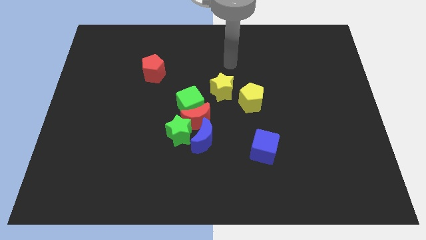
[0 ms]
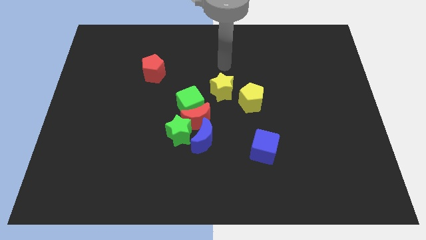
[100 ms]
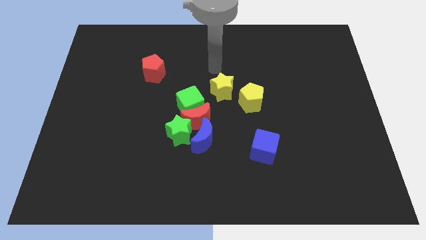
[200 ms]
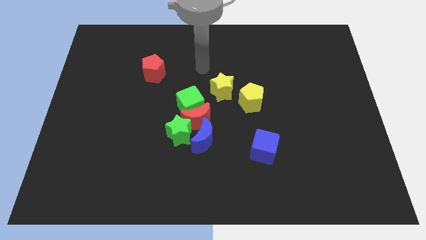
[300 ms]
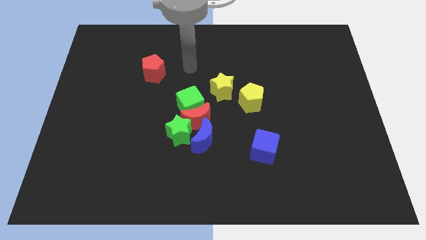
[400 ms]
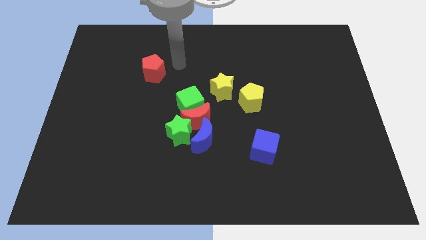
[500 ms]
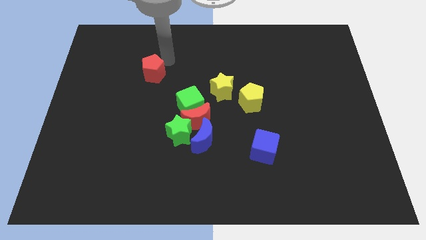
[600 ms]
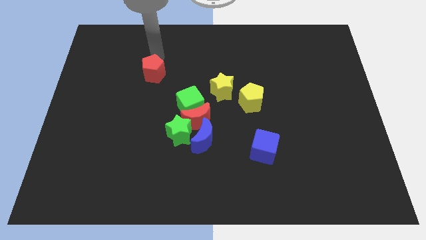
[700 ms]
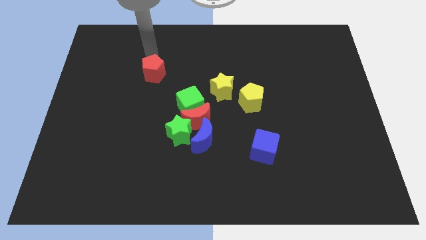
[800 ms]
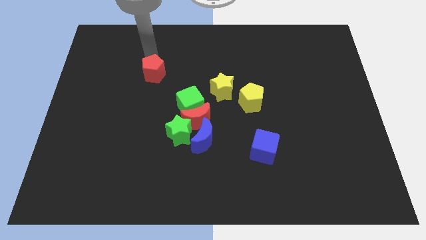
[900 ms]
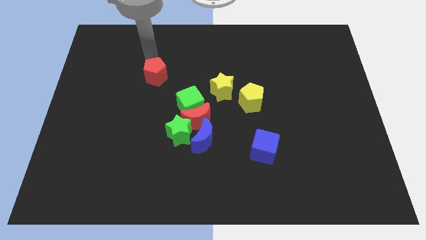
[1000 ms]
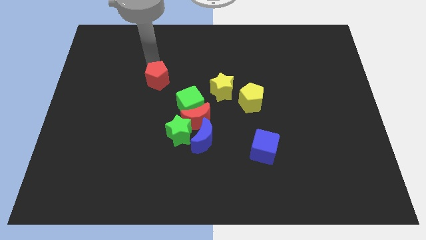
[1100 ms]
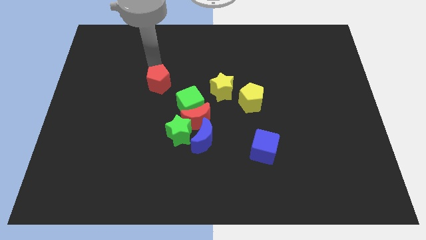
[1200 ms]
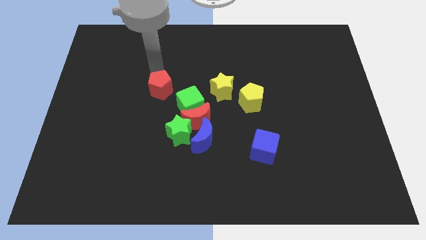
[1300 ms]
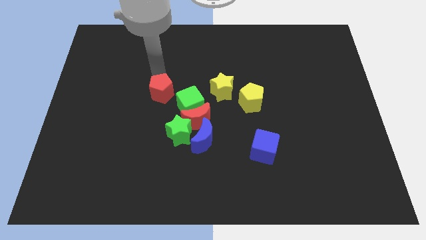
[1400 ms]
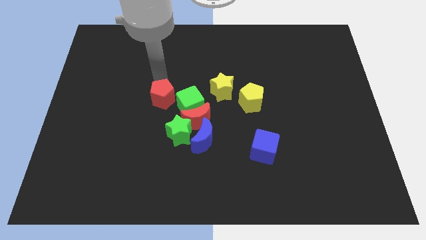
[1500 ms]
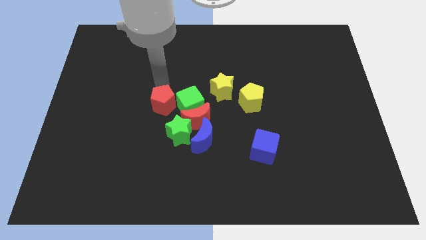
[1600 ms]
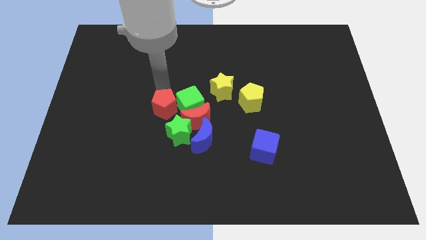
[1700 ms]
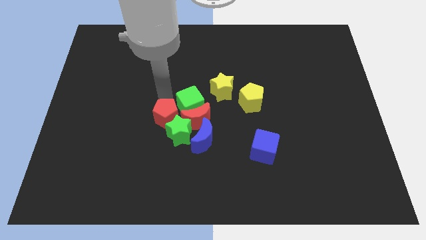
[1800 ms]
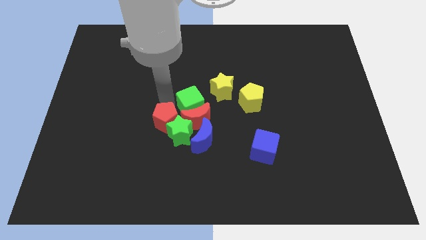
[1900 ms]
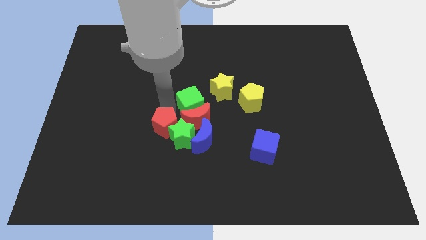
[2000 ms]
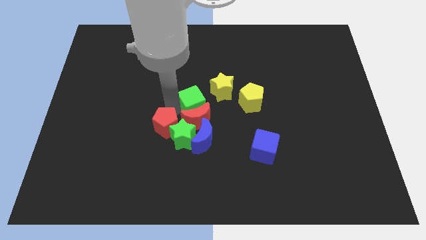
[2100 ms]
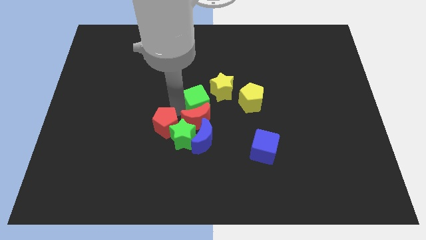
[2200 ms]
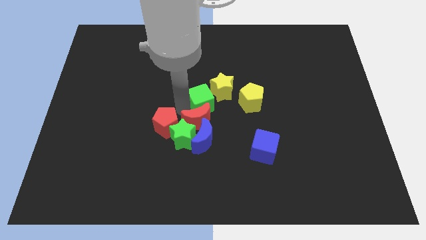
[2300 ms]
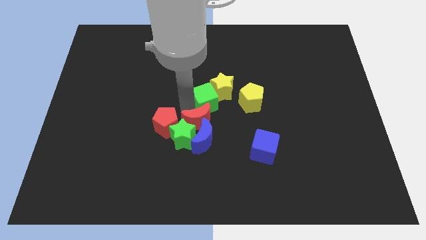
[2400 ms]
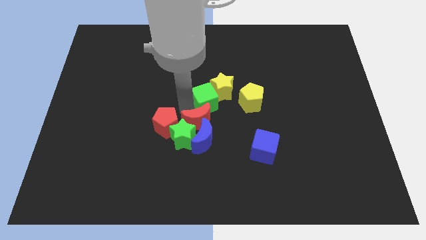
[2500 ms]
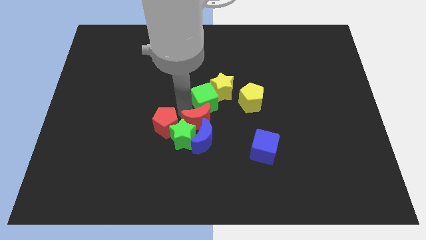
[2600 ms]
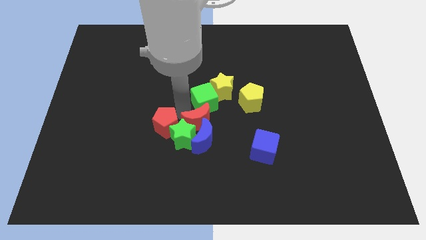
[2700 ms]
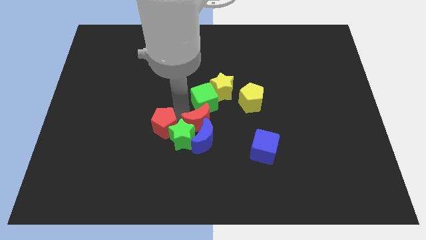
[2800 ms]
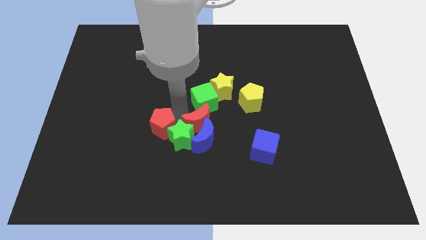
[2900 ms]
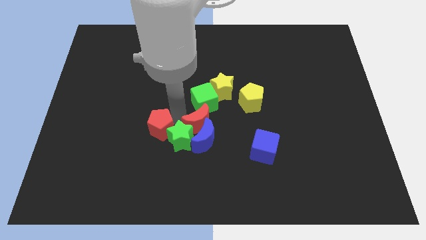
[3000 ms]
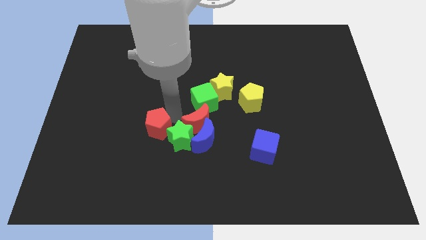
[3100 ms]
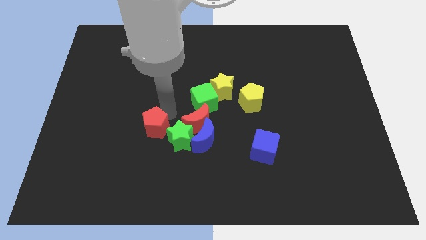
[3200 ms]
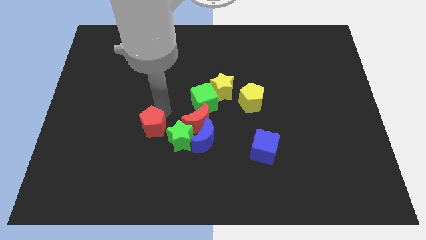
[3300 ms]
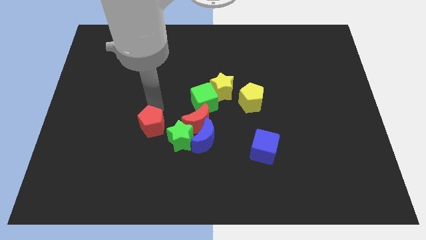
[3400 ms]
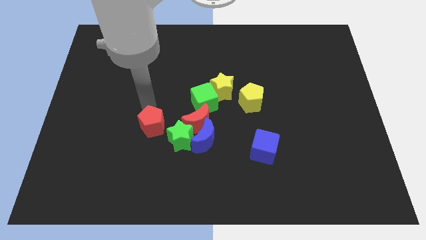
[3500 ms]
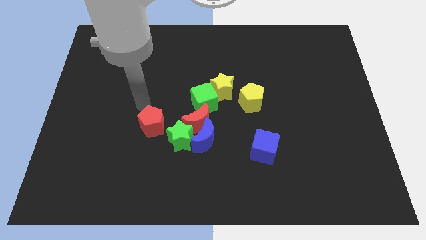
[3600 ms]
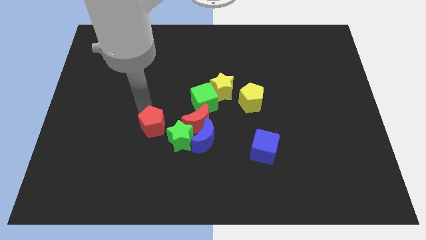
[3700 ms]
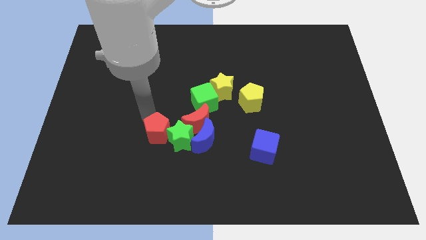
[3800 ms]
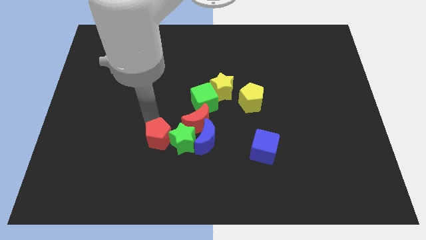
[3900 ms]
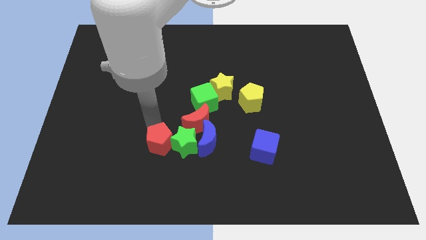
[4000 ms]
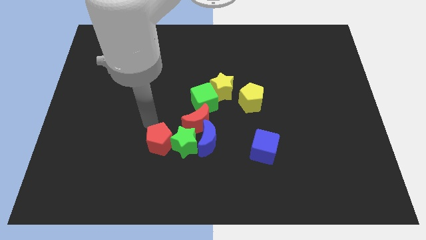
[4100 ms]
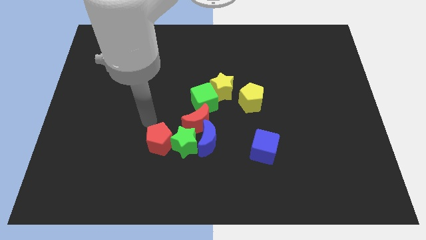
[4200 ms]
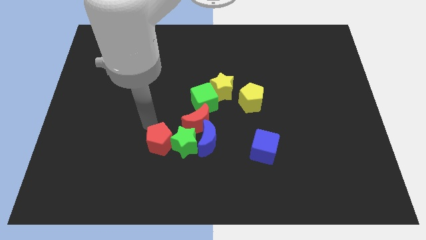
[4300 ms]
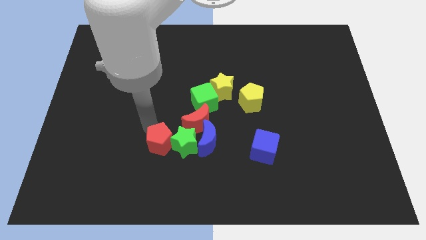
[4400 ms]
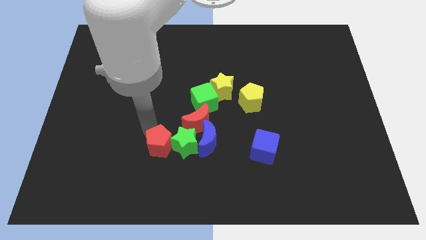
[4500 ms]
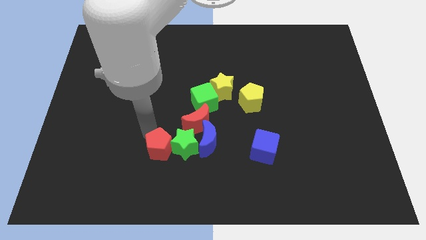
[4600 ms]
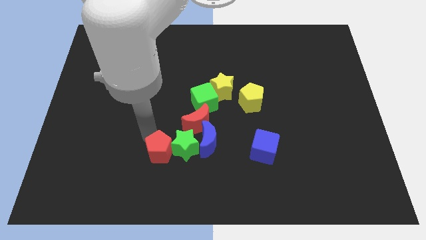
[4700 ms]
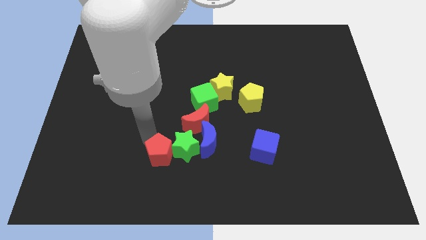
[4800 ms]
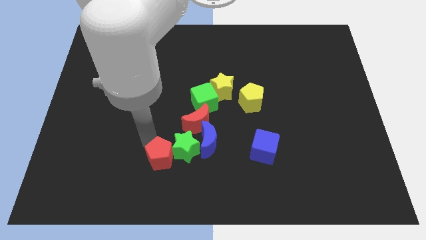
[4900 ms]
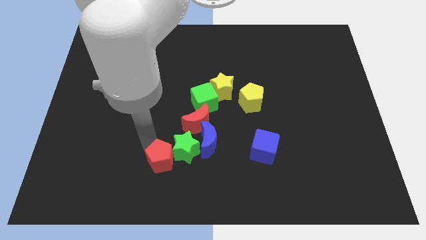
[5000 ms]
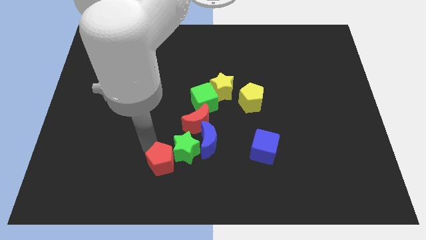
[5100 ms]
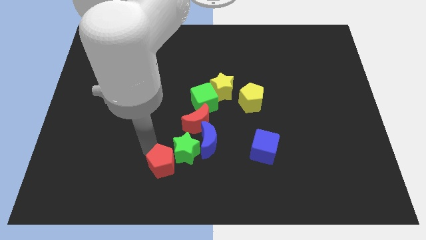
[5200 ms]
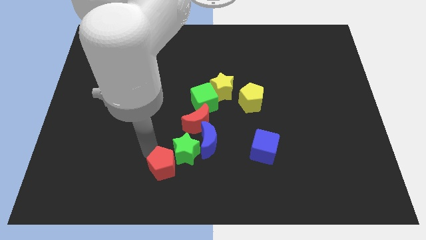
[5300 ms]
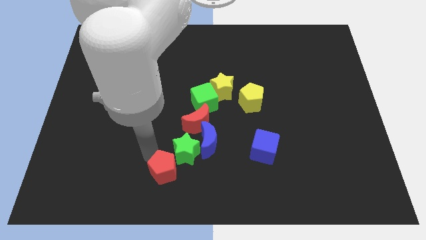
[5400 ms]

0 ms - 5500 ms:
put the red pentagon to the bottom side
